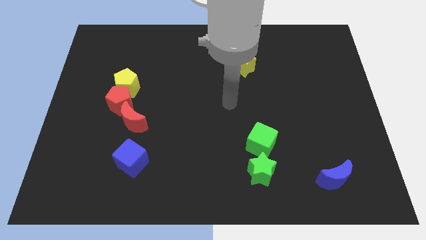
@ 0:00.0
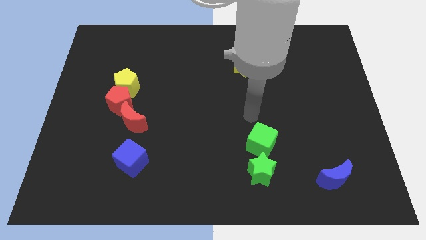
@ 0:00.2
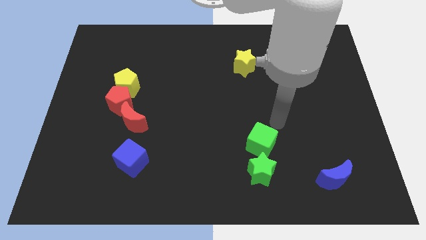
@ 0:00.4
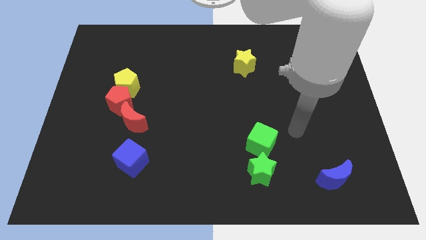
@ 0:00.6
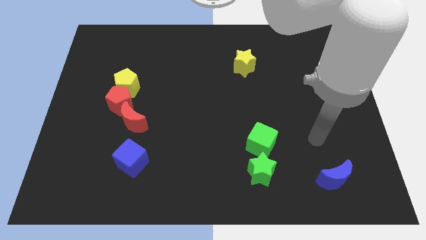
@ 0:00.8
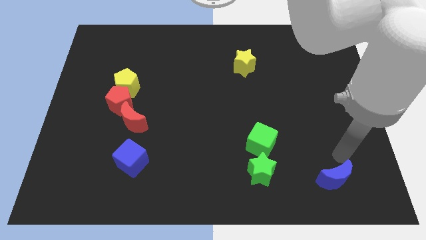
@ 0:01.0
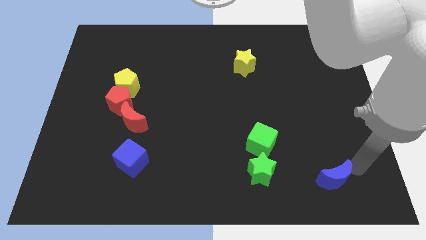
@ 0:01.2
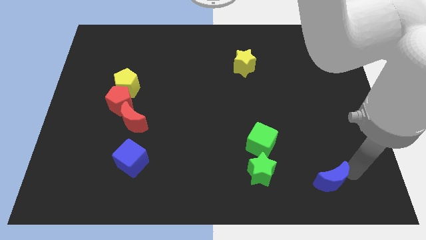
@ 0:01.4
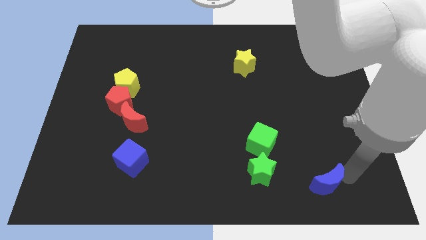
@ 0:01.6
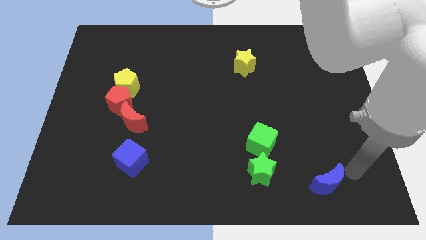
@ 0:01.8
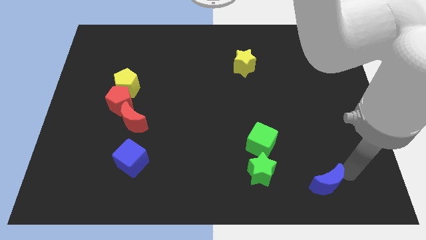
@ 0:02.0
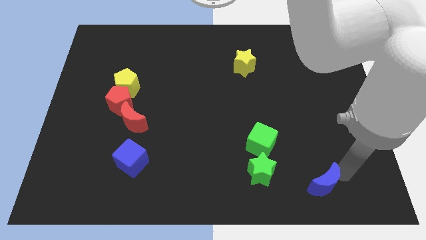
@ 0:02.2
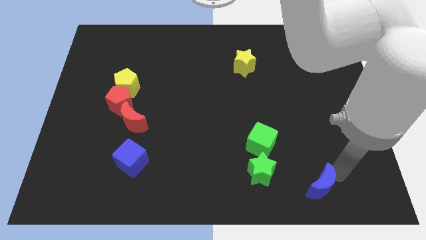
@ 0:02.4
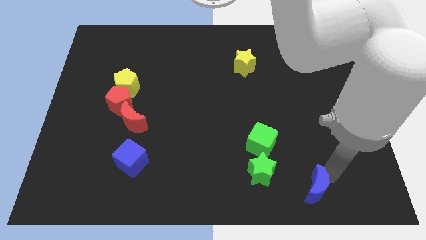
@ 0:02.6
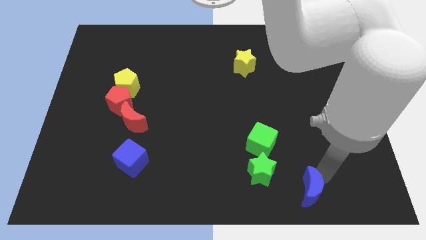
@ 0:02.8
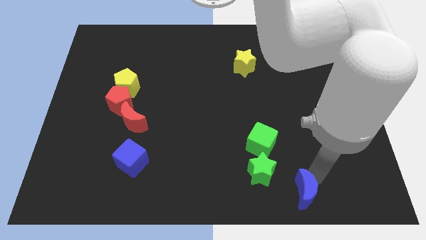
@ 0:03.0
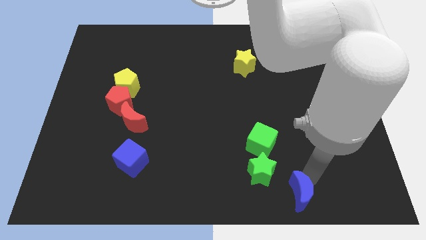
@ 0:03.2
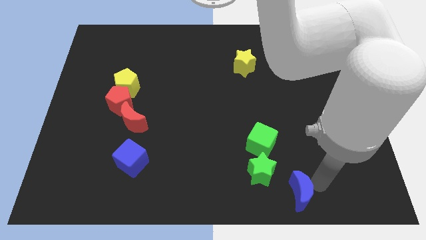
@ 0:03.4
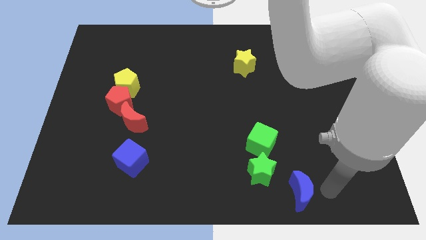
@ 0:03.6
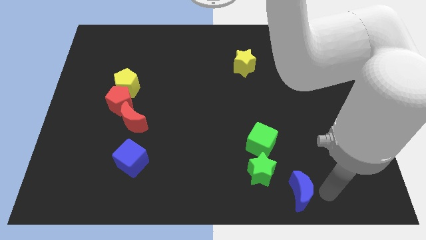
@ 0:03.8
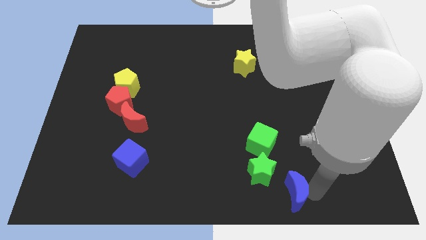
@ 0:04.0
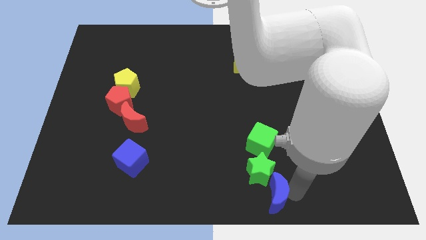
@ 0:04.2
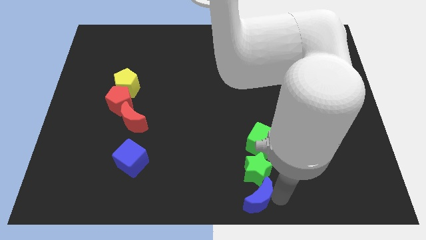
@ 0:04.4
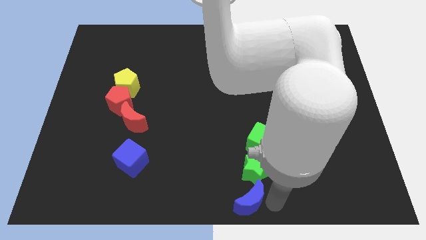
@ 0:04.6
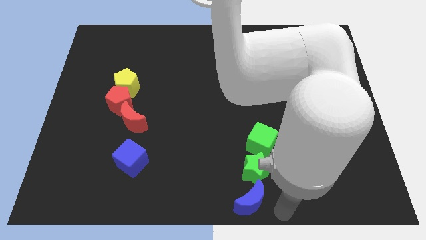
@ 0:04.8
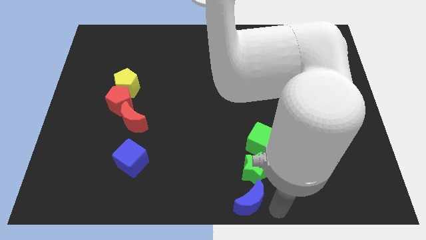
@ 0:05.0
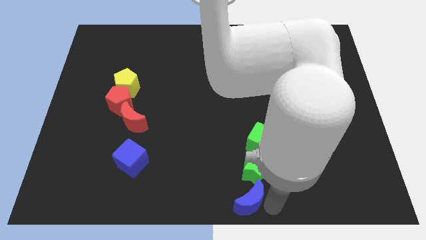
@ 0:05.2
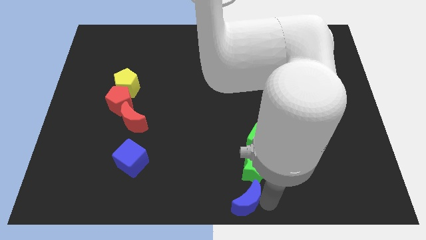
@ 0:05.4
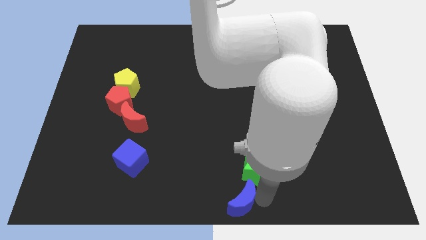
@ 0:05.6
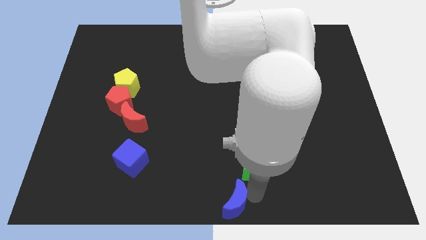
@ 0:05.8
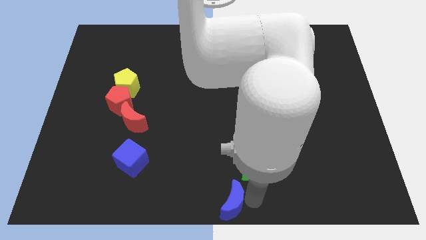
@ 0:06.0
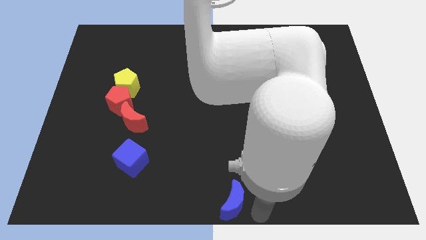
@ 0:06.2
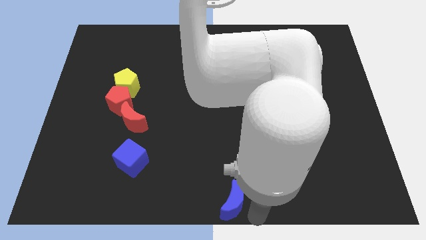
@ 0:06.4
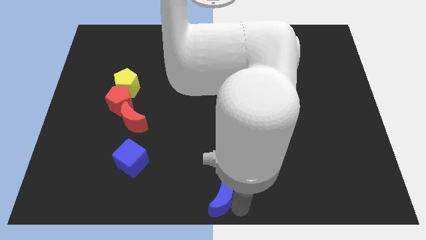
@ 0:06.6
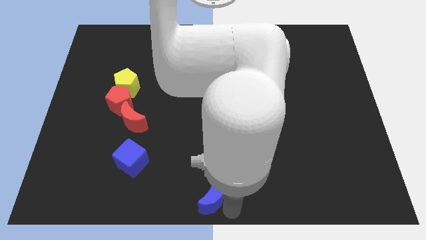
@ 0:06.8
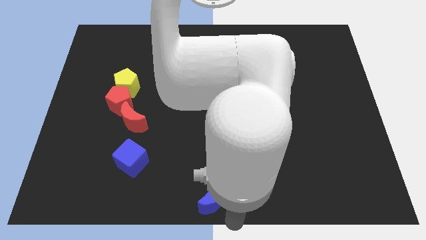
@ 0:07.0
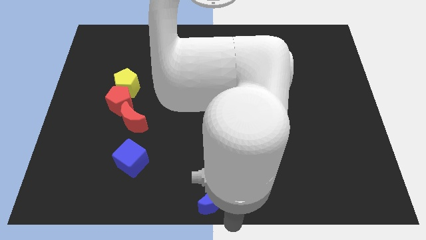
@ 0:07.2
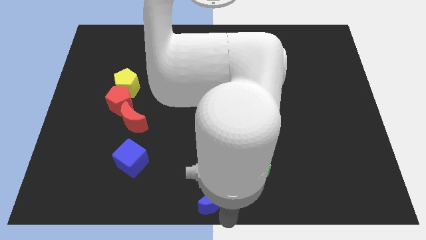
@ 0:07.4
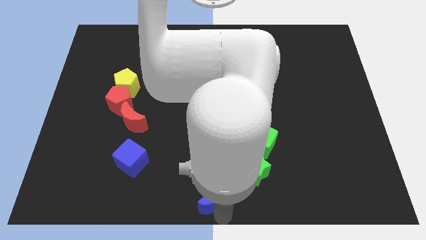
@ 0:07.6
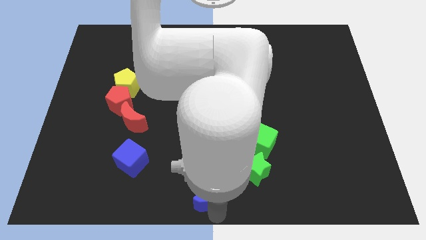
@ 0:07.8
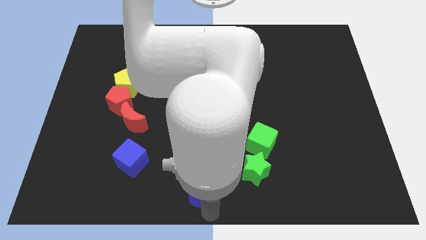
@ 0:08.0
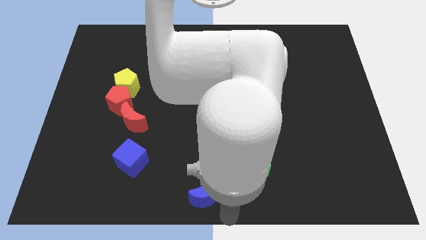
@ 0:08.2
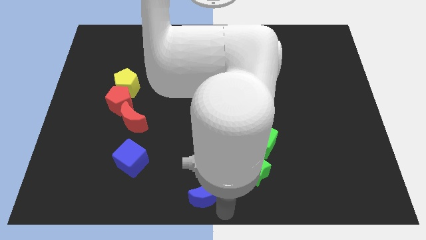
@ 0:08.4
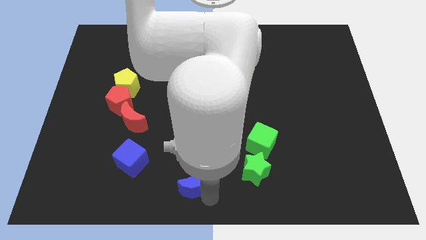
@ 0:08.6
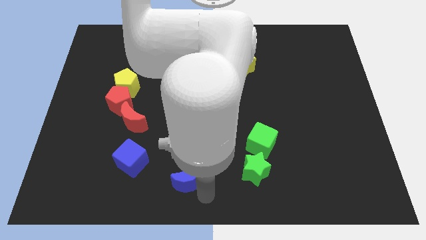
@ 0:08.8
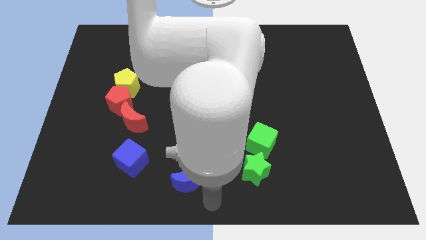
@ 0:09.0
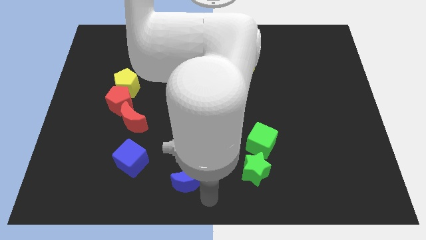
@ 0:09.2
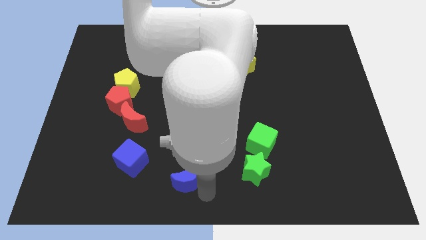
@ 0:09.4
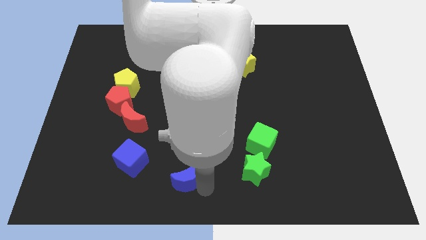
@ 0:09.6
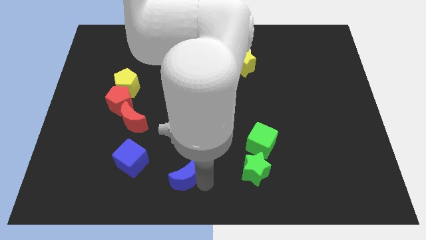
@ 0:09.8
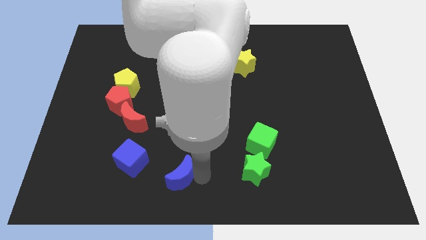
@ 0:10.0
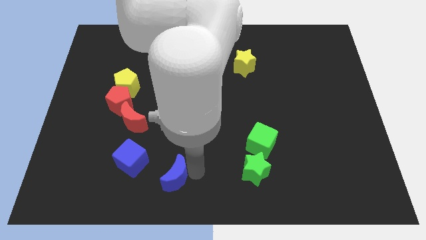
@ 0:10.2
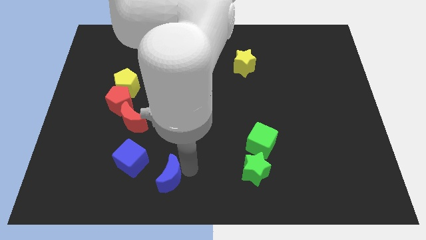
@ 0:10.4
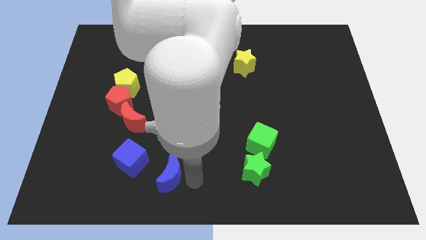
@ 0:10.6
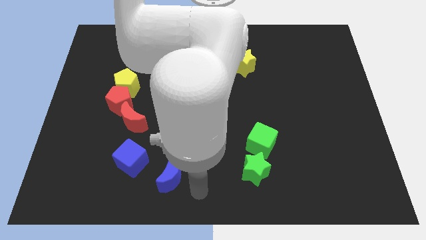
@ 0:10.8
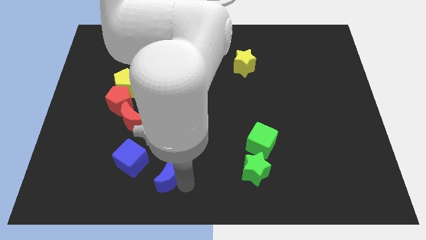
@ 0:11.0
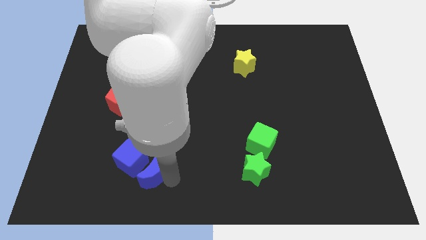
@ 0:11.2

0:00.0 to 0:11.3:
put the blue moon towards the blue cube
